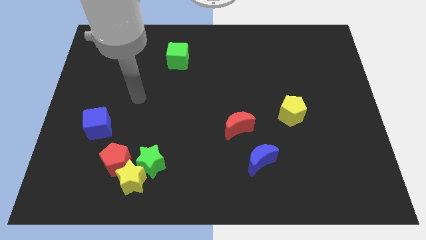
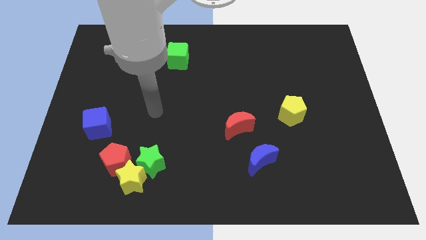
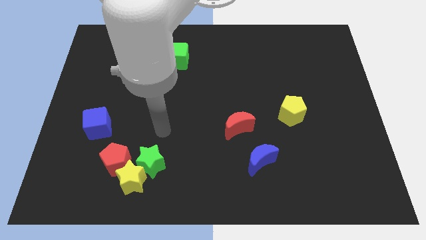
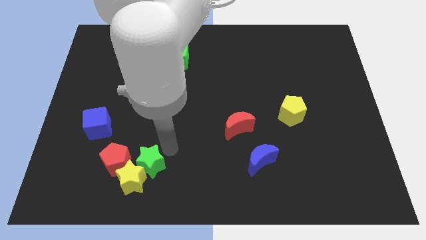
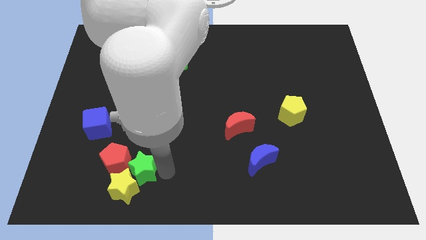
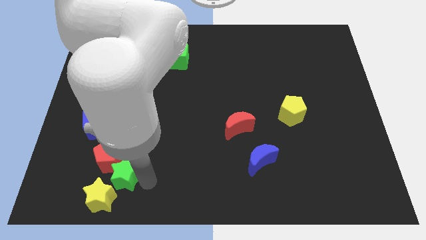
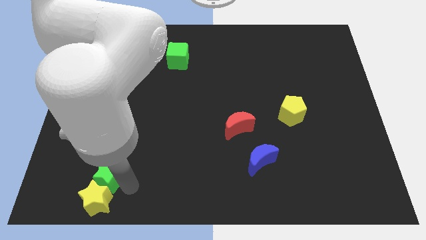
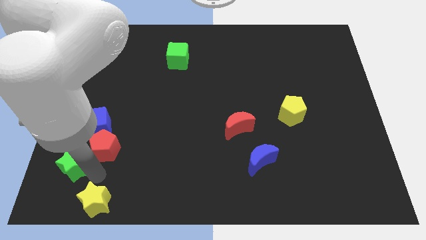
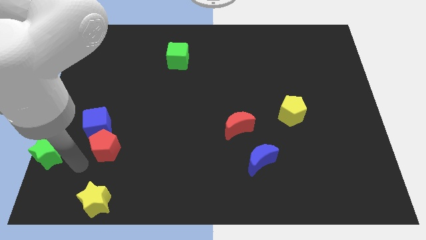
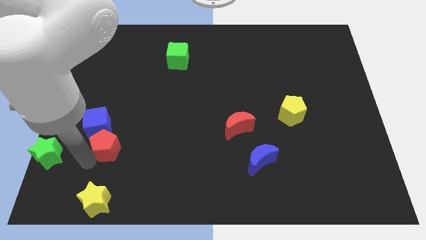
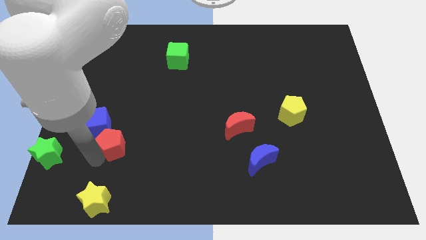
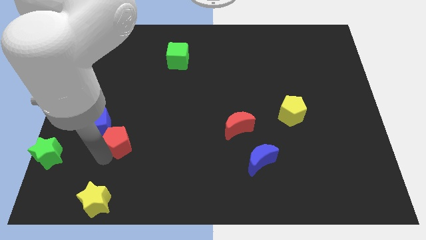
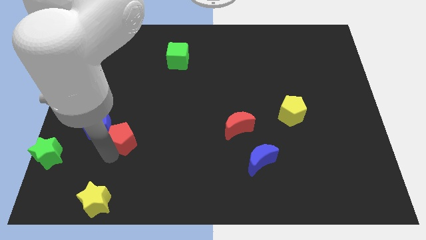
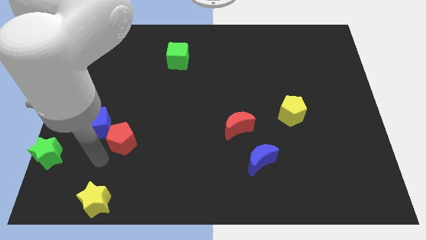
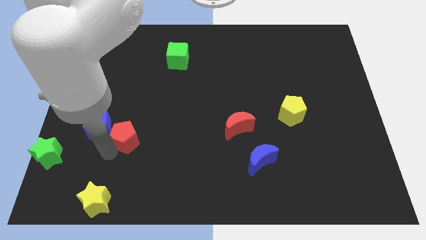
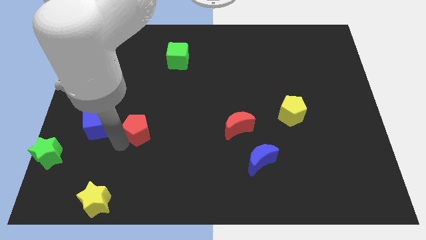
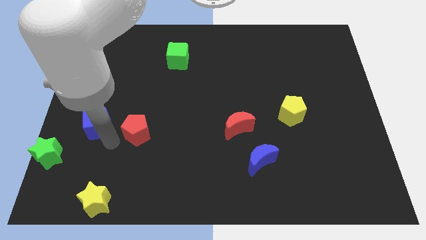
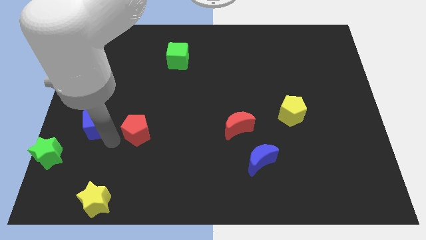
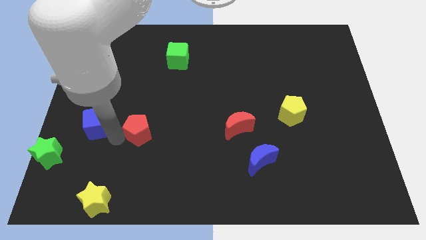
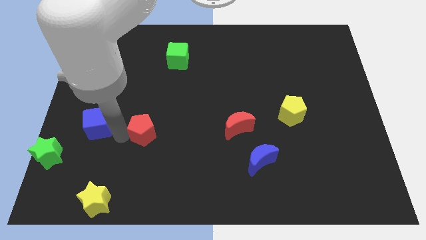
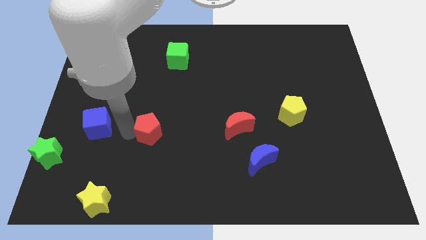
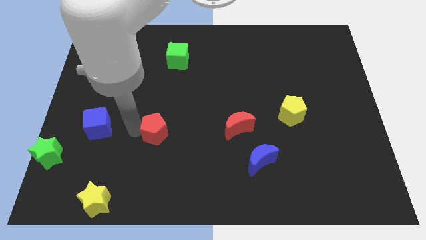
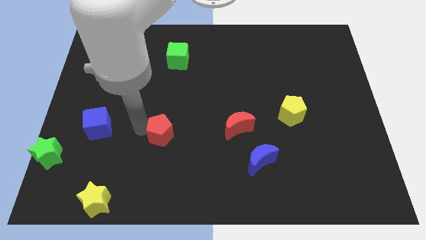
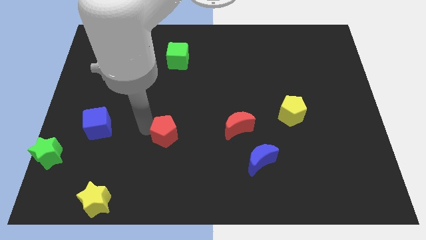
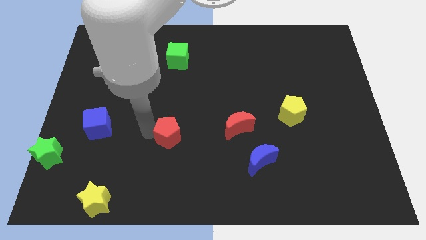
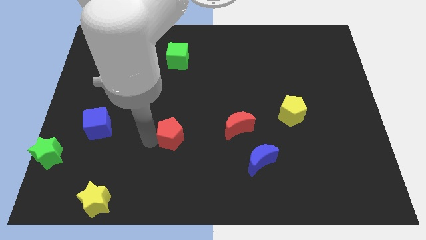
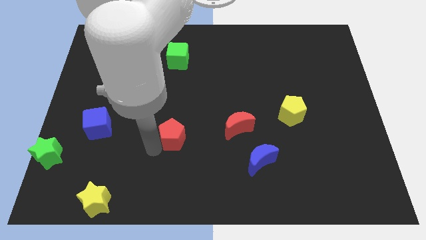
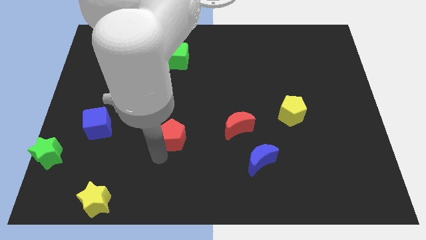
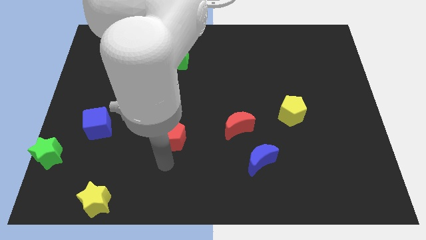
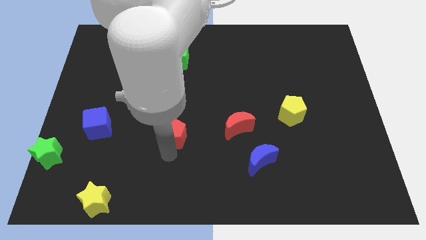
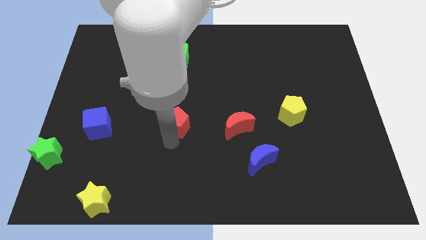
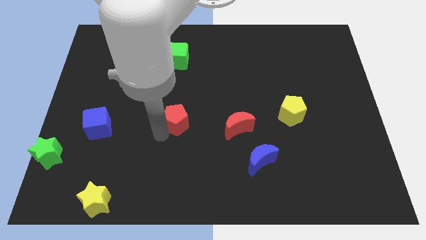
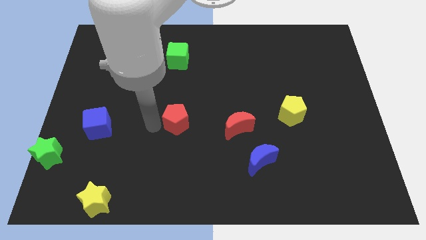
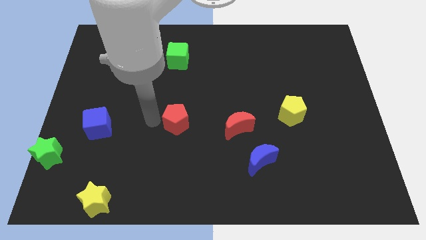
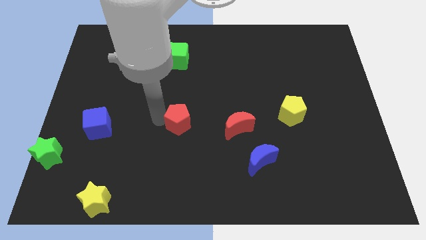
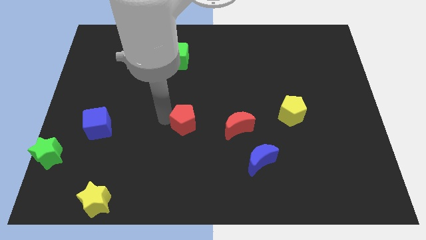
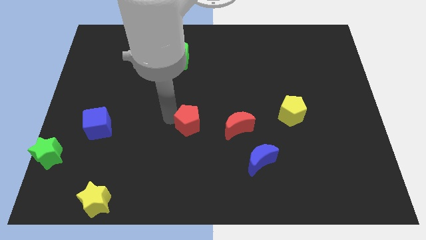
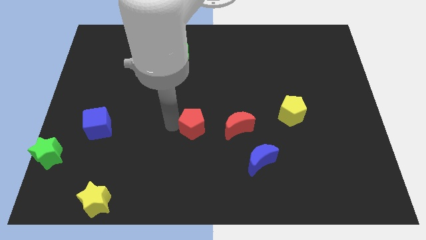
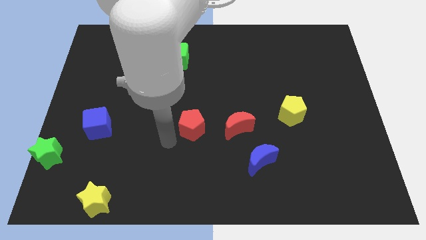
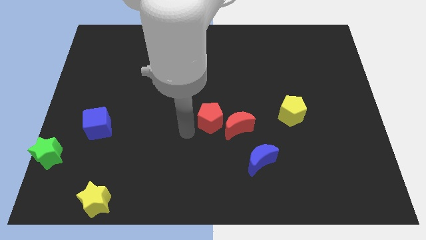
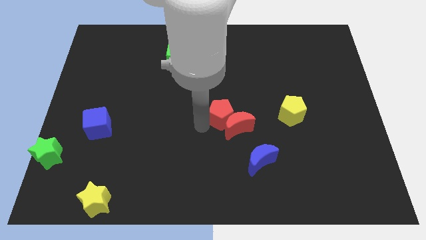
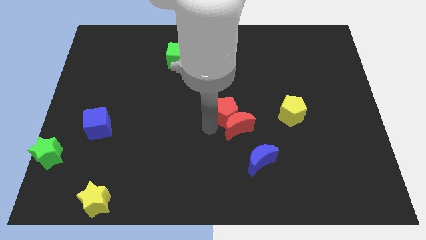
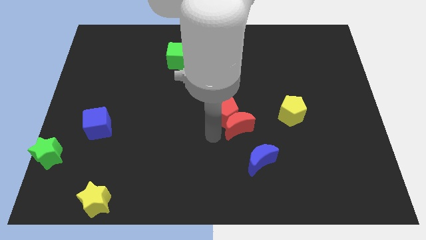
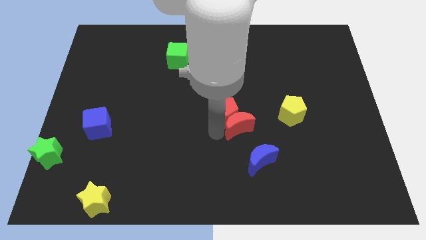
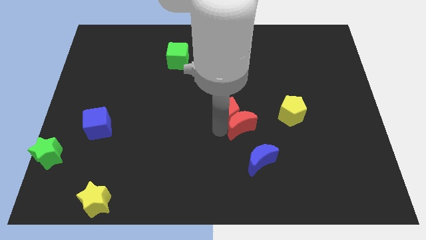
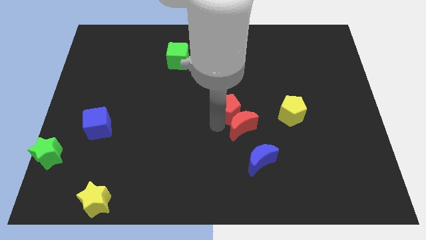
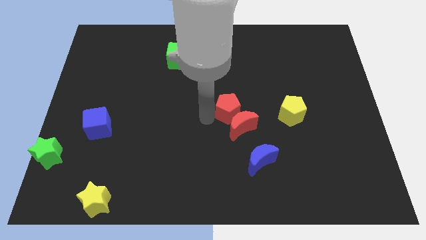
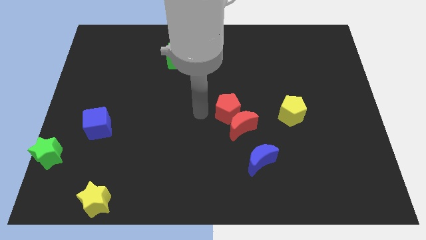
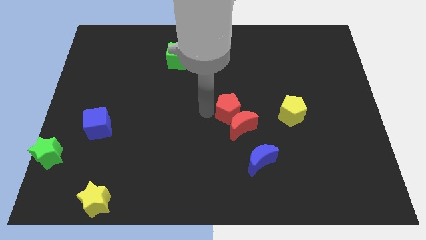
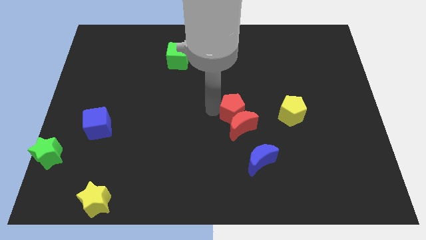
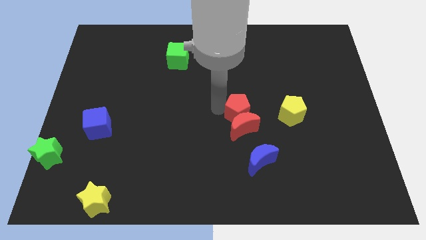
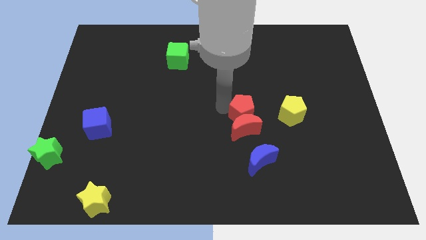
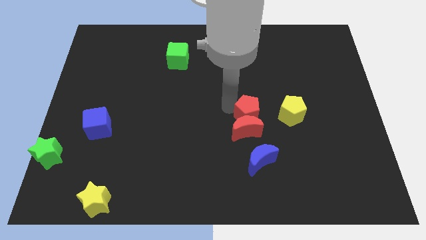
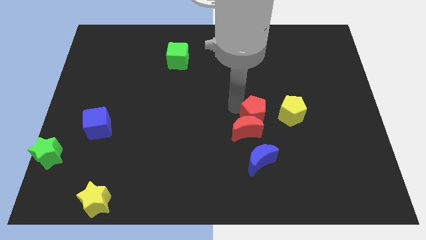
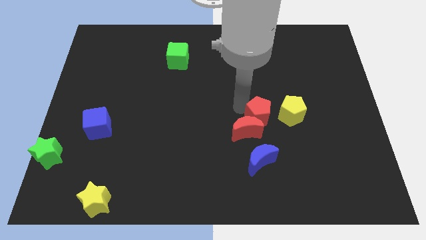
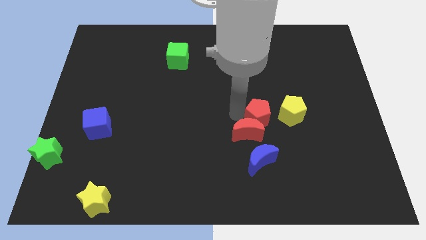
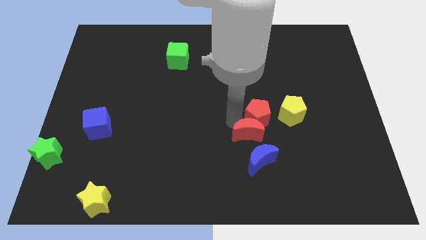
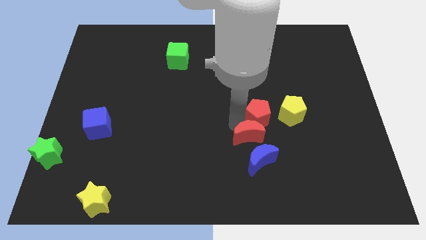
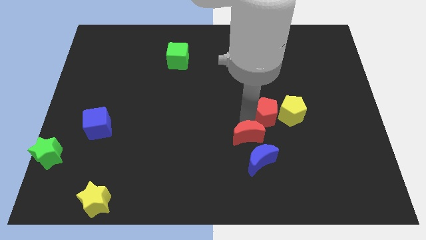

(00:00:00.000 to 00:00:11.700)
move the red pentagon to the yellow pentagon

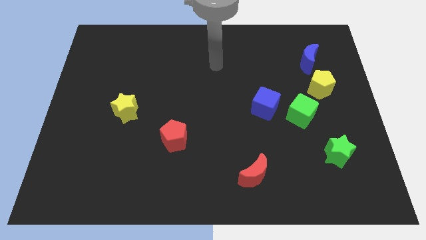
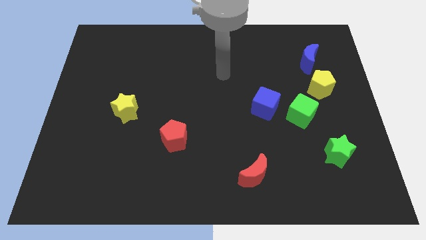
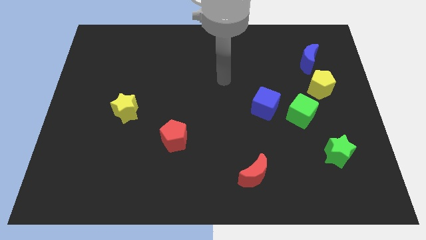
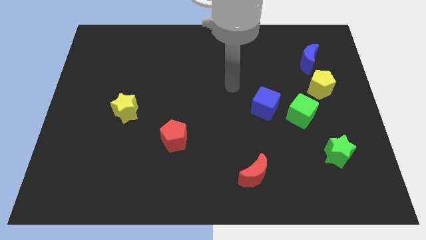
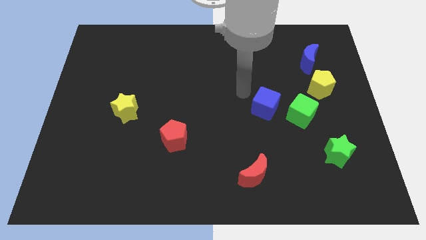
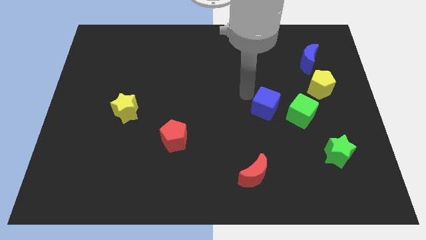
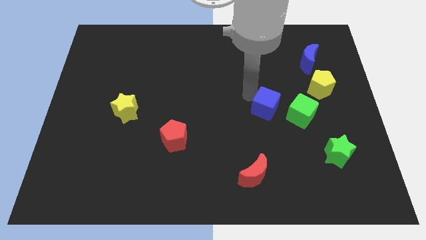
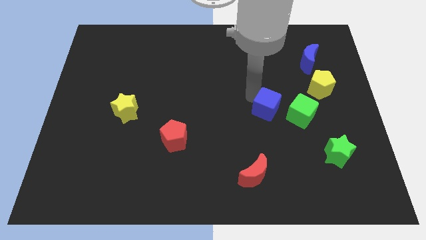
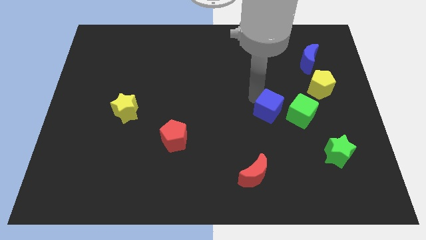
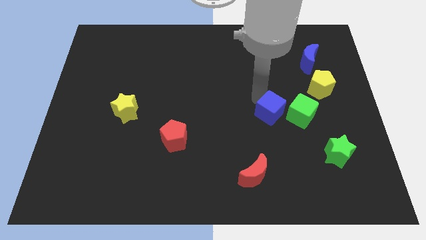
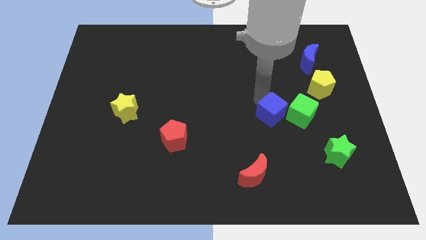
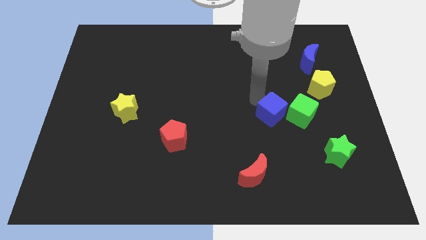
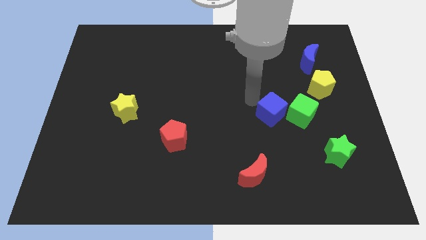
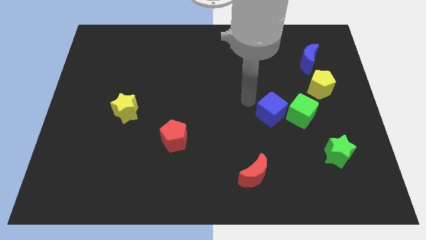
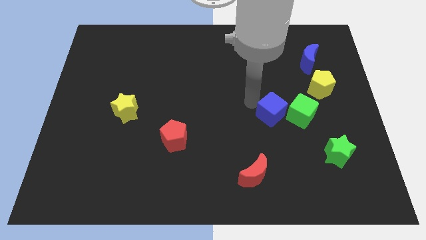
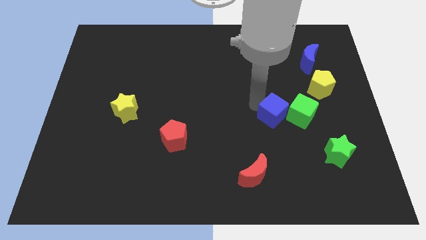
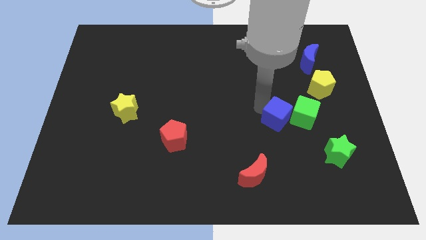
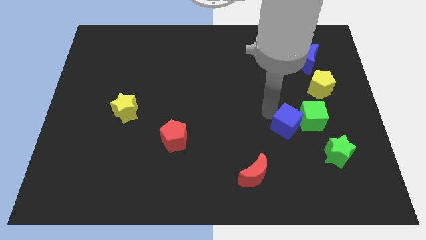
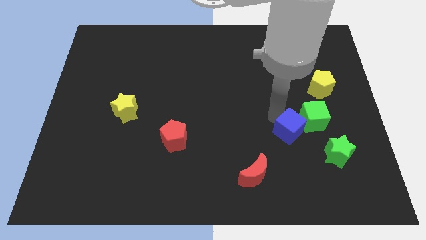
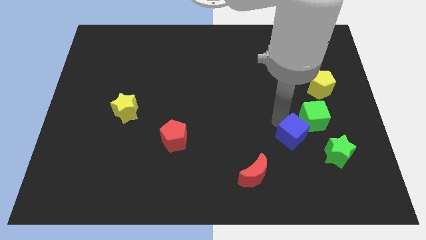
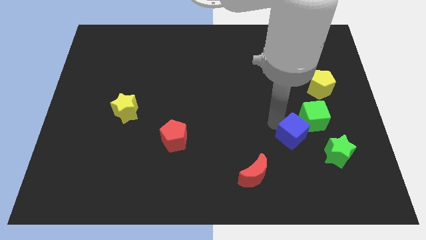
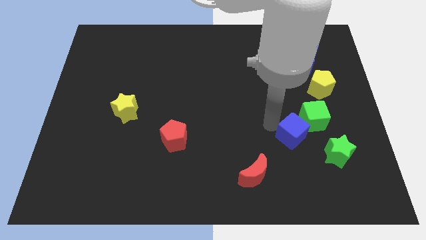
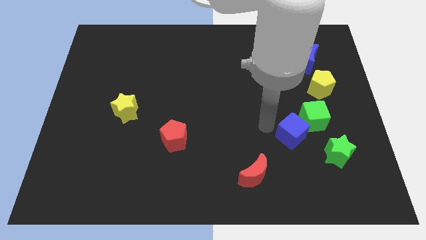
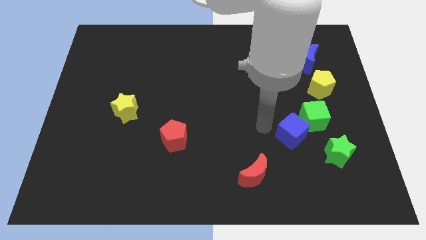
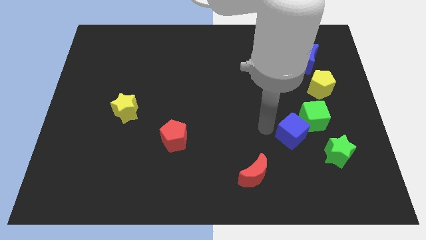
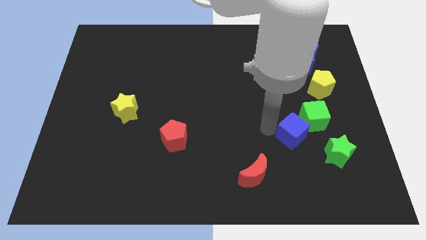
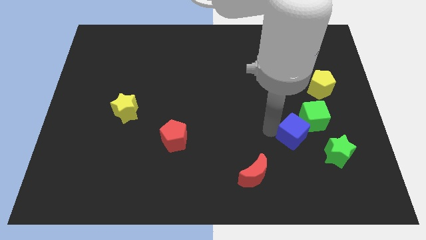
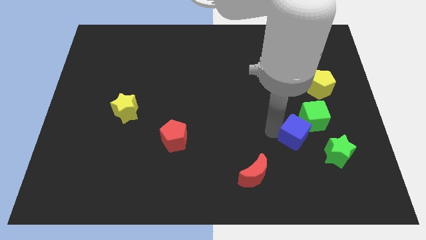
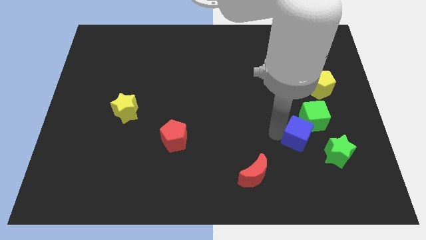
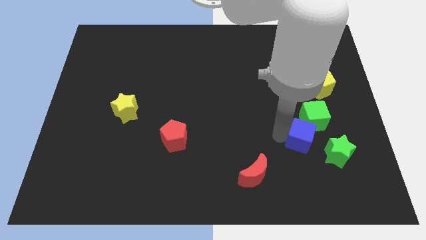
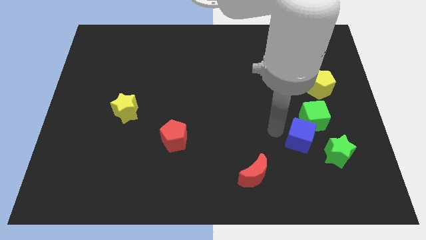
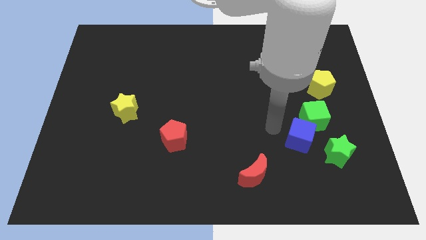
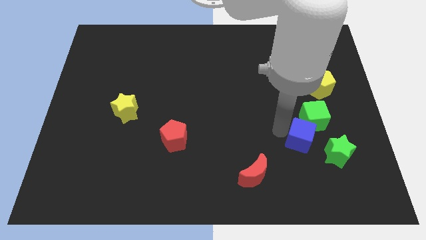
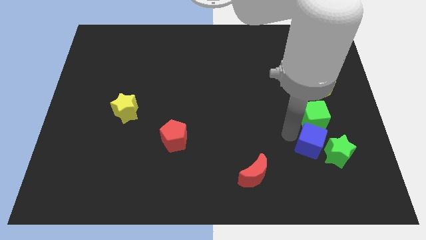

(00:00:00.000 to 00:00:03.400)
slide the blue cube next to the green star
